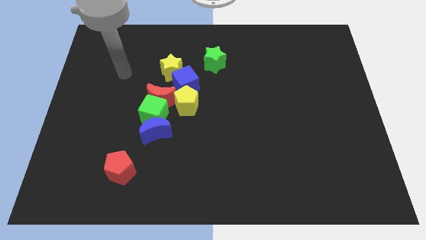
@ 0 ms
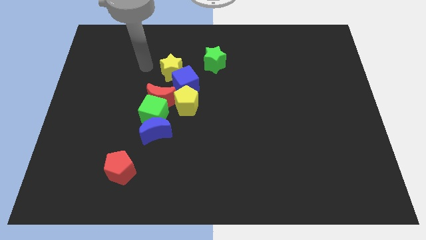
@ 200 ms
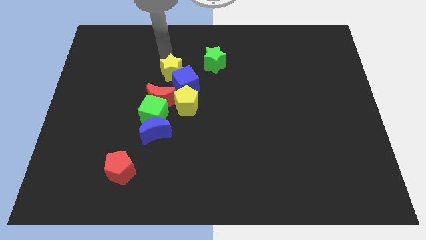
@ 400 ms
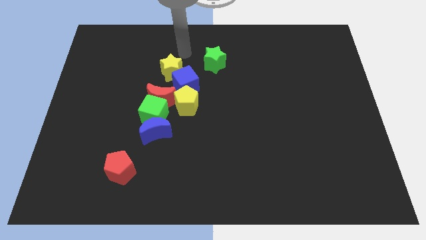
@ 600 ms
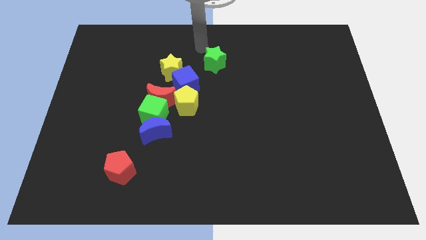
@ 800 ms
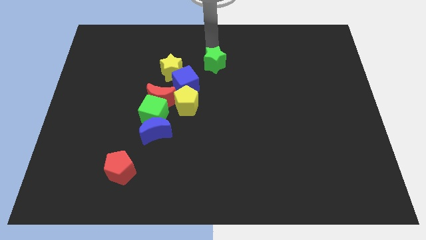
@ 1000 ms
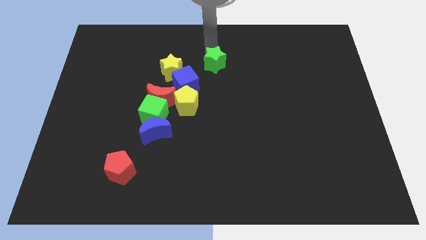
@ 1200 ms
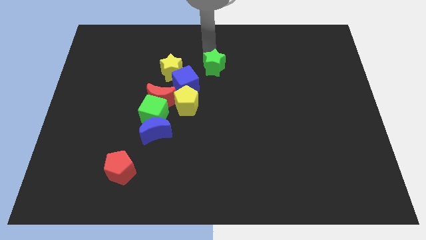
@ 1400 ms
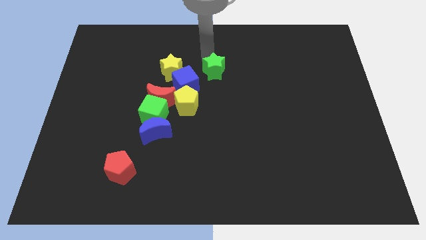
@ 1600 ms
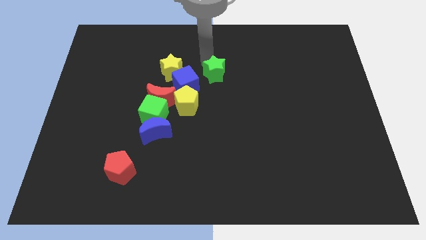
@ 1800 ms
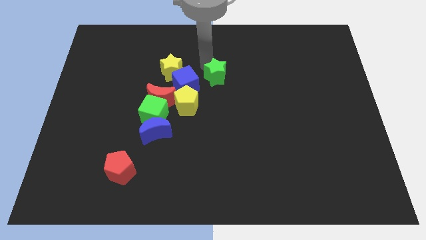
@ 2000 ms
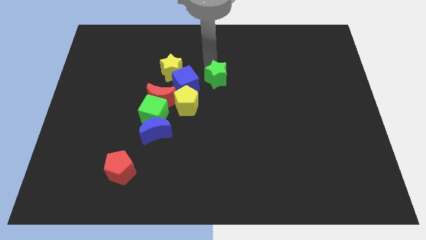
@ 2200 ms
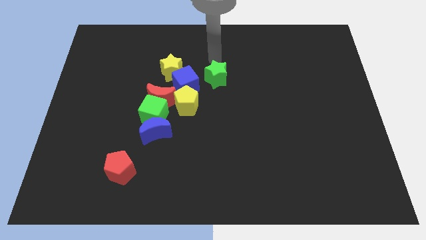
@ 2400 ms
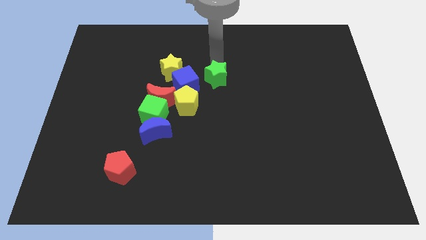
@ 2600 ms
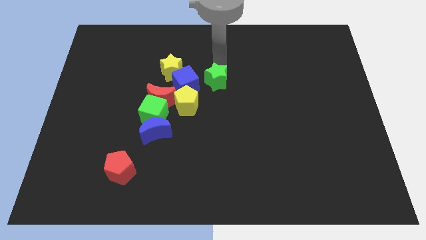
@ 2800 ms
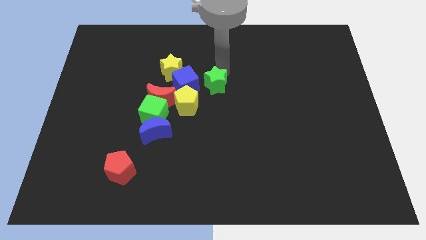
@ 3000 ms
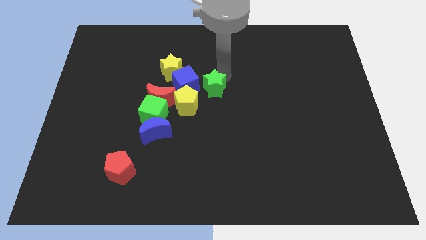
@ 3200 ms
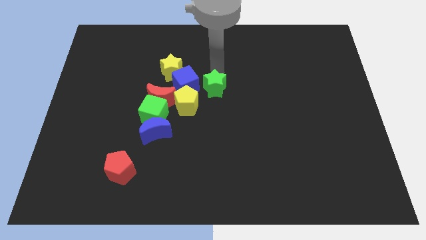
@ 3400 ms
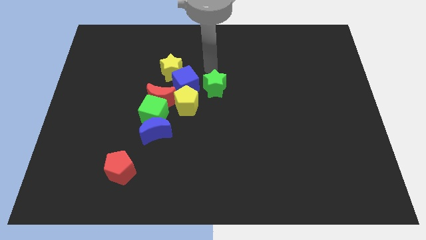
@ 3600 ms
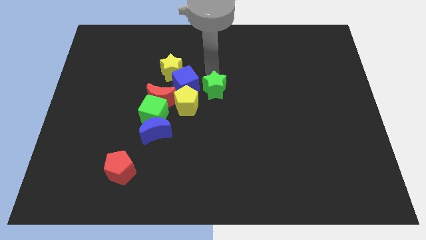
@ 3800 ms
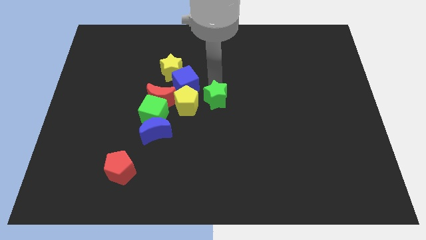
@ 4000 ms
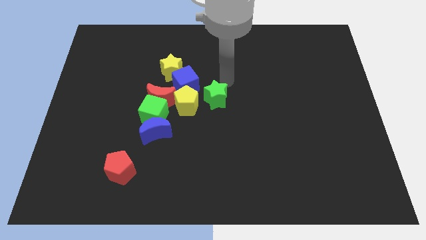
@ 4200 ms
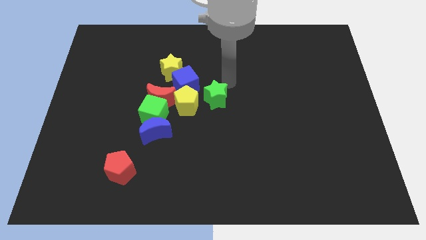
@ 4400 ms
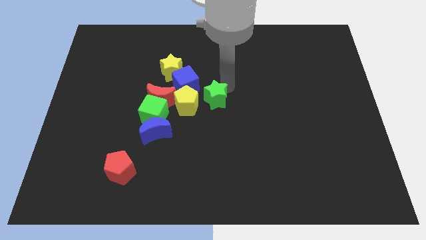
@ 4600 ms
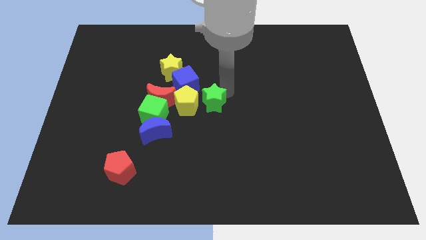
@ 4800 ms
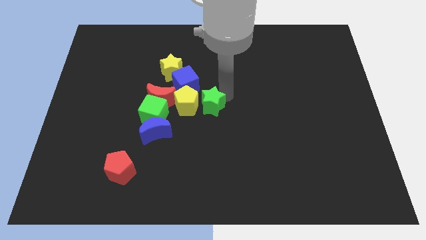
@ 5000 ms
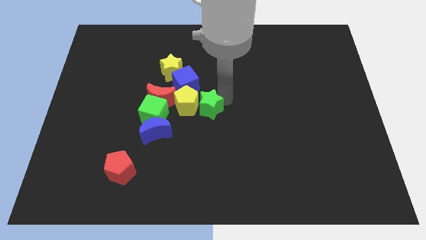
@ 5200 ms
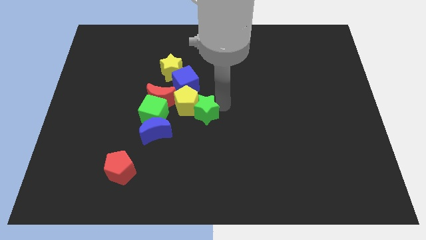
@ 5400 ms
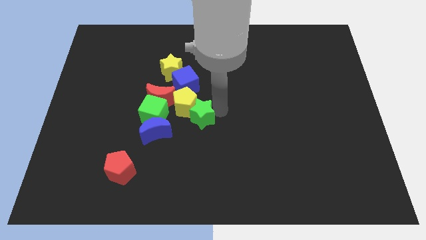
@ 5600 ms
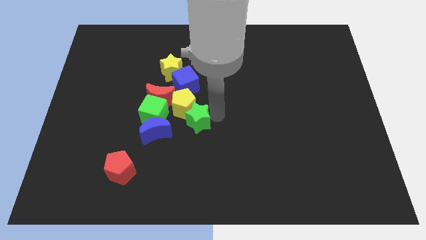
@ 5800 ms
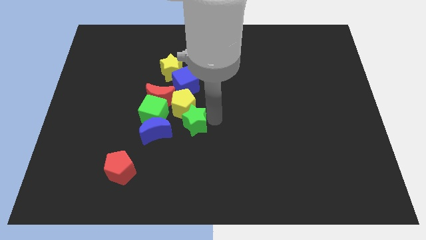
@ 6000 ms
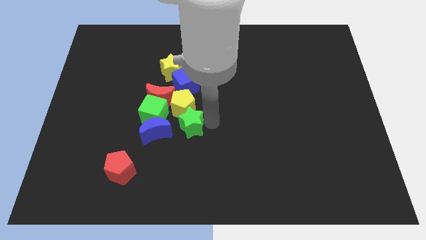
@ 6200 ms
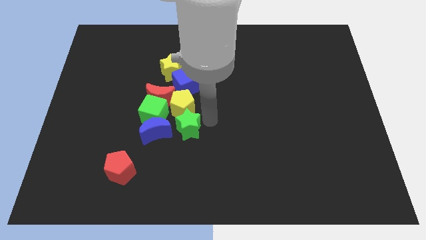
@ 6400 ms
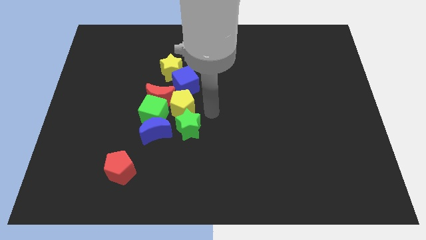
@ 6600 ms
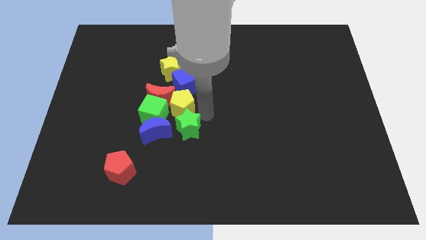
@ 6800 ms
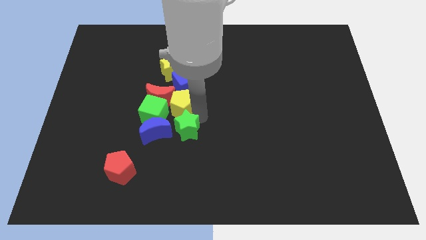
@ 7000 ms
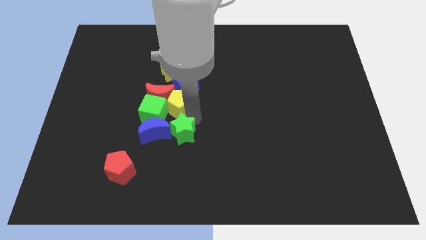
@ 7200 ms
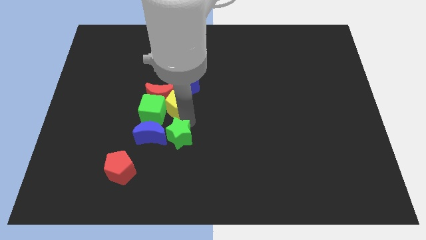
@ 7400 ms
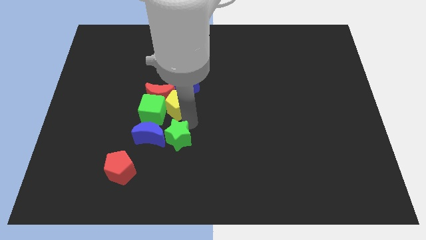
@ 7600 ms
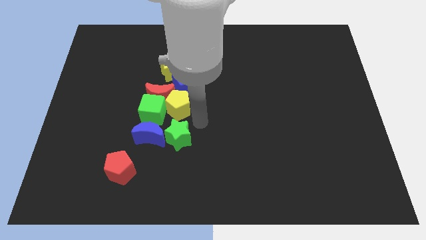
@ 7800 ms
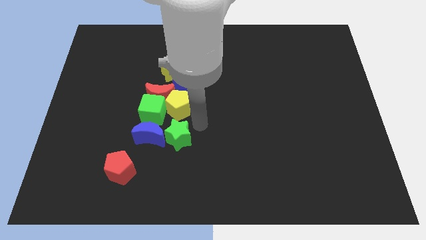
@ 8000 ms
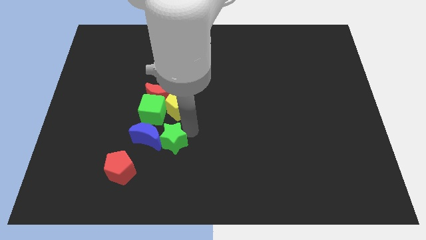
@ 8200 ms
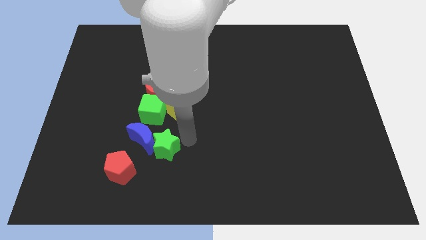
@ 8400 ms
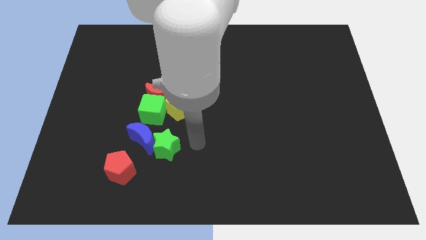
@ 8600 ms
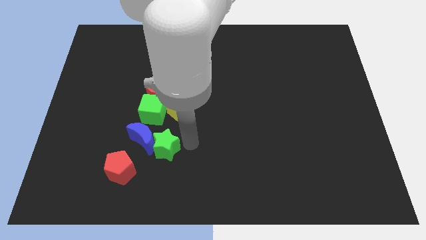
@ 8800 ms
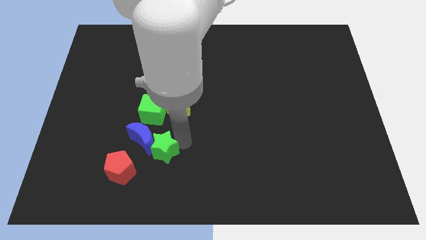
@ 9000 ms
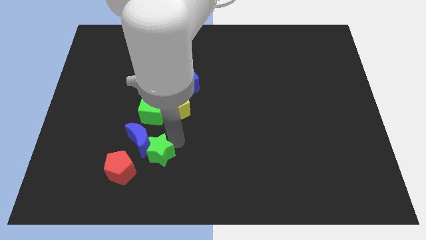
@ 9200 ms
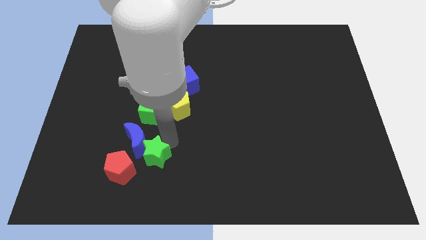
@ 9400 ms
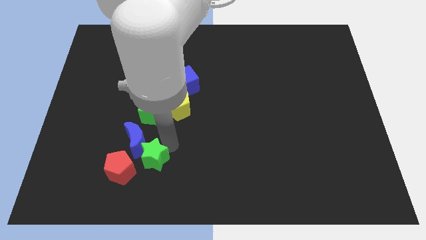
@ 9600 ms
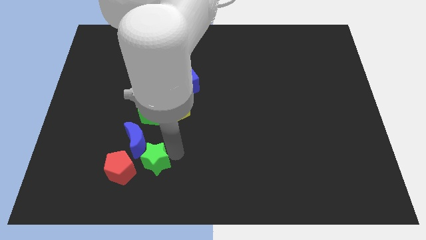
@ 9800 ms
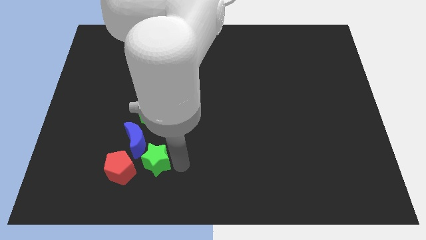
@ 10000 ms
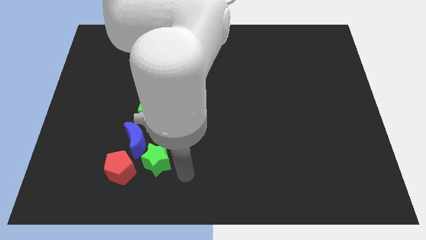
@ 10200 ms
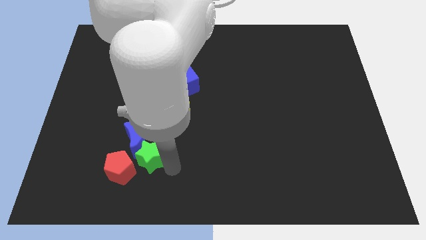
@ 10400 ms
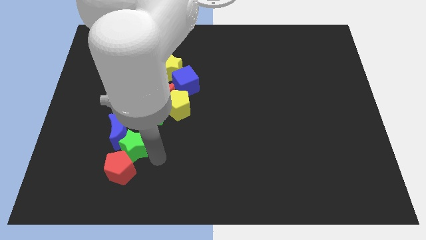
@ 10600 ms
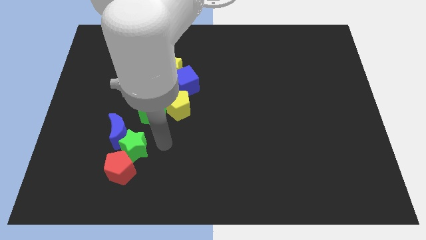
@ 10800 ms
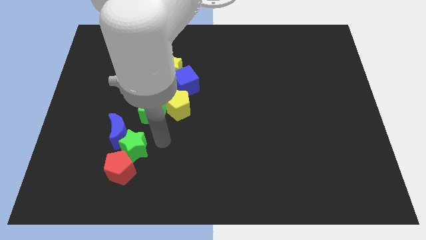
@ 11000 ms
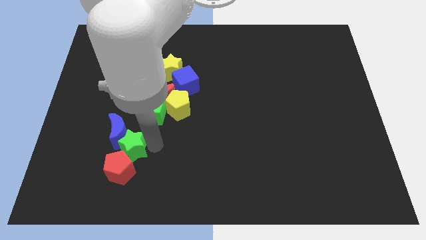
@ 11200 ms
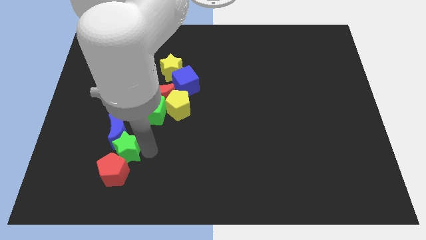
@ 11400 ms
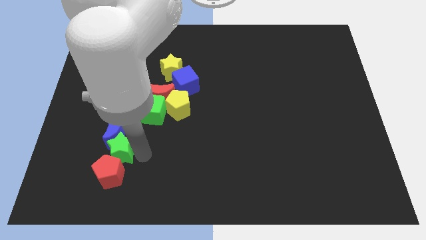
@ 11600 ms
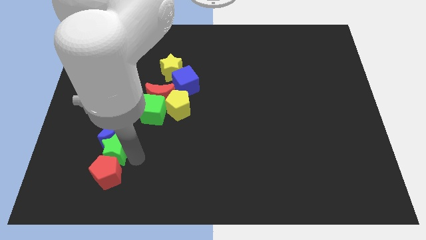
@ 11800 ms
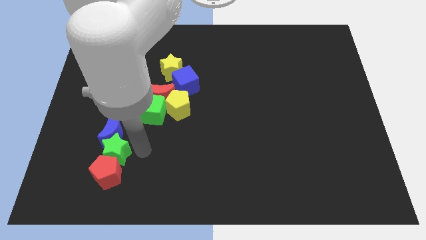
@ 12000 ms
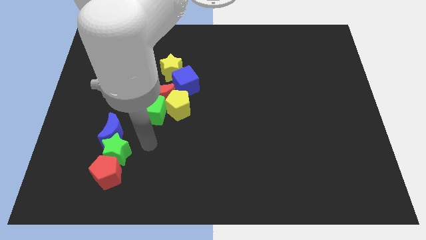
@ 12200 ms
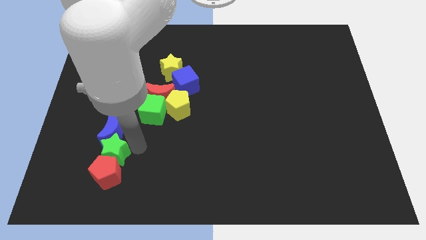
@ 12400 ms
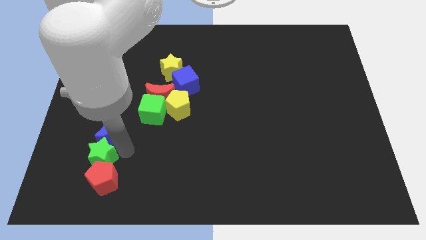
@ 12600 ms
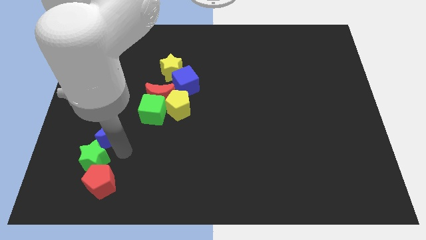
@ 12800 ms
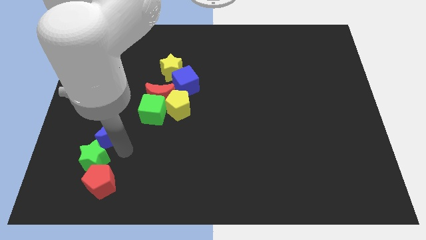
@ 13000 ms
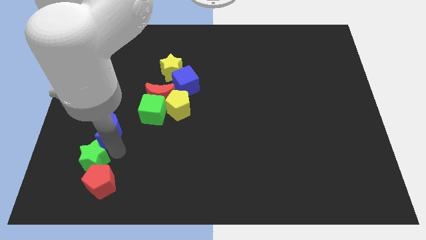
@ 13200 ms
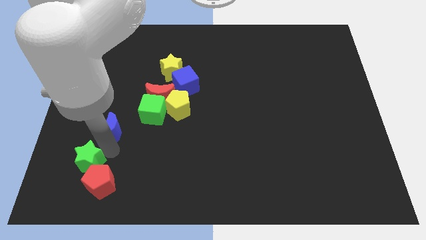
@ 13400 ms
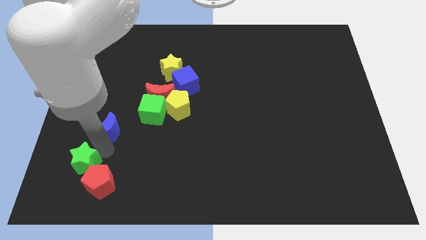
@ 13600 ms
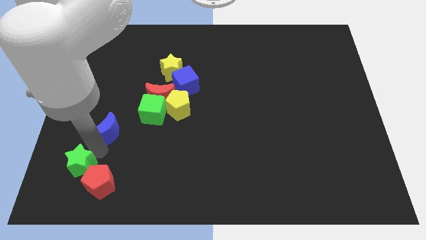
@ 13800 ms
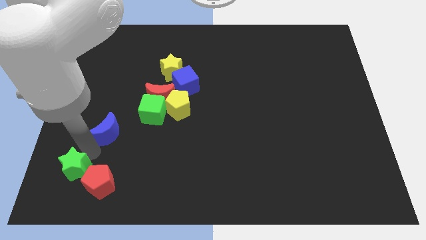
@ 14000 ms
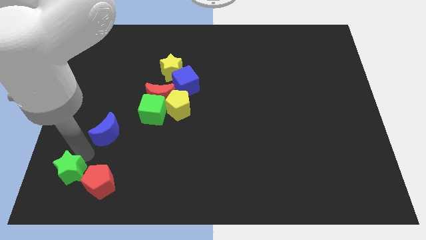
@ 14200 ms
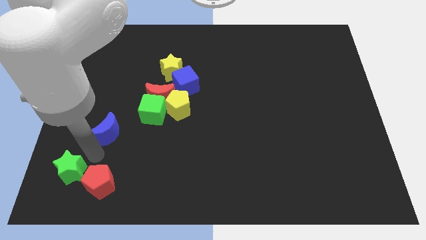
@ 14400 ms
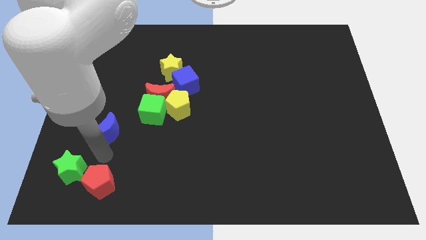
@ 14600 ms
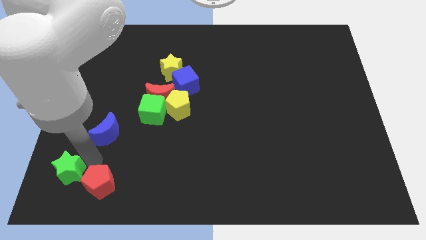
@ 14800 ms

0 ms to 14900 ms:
slide the green star to the bottom left
